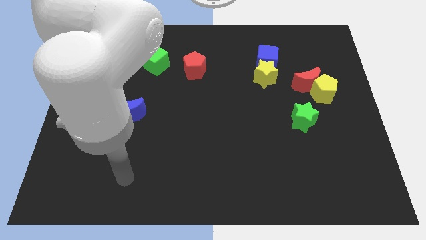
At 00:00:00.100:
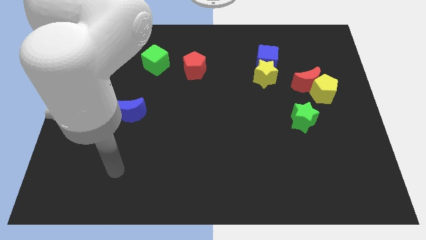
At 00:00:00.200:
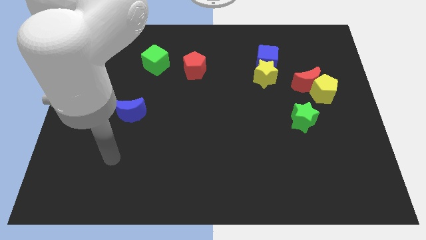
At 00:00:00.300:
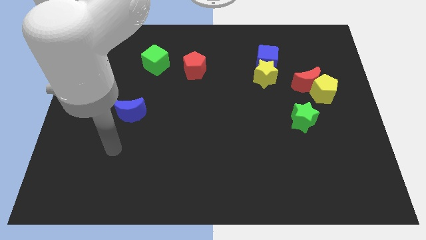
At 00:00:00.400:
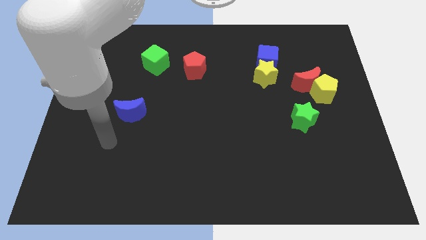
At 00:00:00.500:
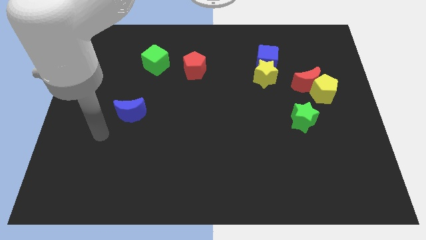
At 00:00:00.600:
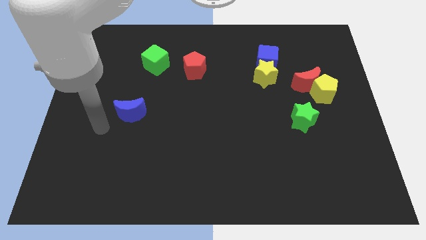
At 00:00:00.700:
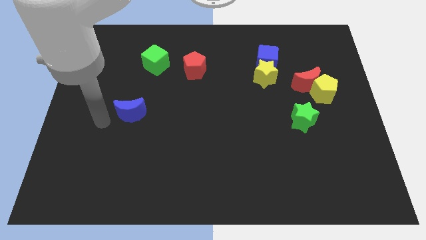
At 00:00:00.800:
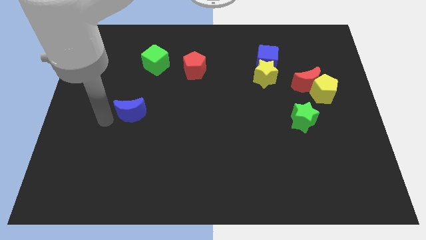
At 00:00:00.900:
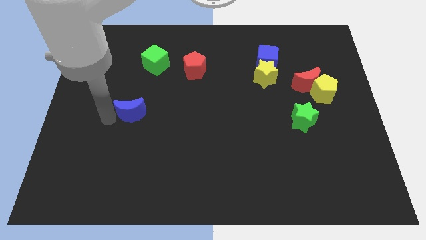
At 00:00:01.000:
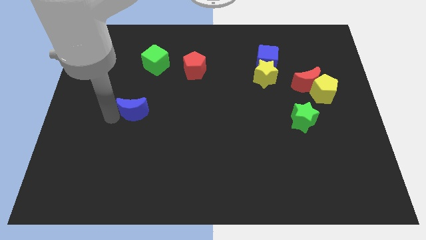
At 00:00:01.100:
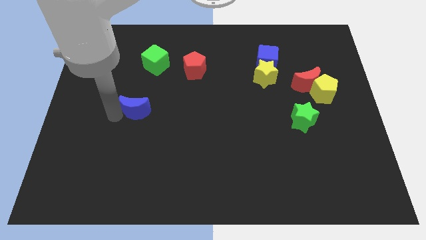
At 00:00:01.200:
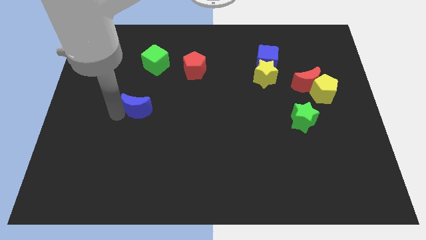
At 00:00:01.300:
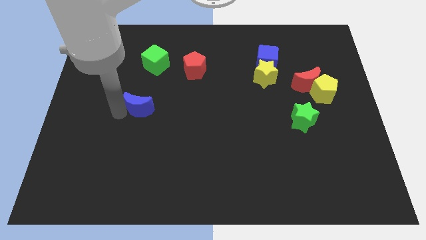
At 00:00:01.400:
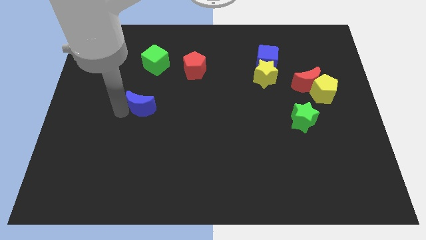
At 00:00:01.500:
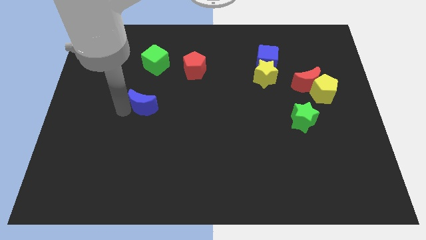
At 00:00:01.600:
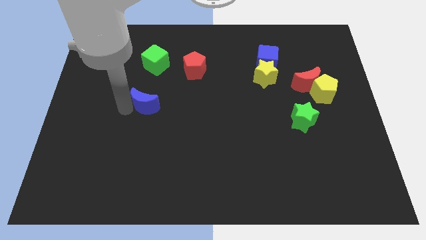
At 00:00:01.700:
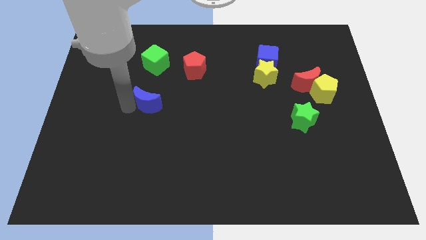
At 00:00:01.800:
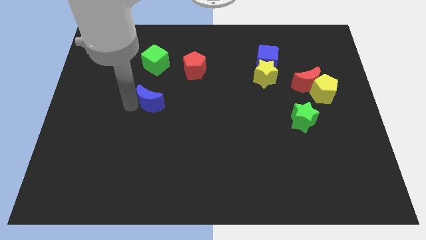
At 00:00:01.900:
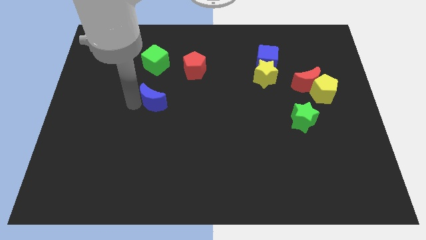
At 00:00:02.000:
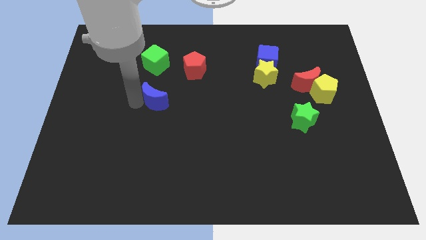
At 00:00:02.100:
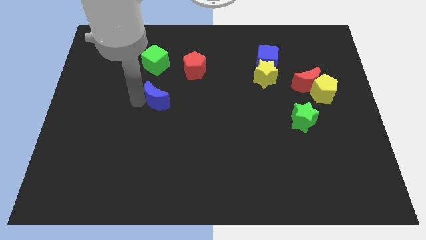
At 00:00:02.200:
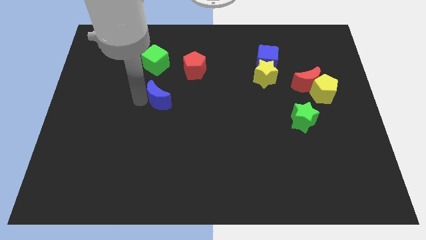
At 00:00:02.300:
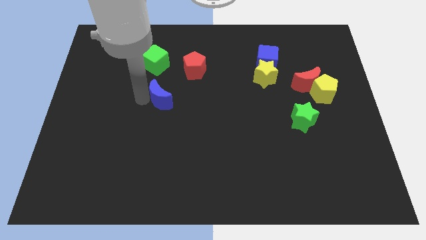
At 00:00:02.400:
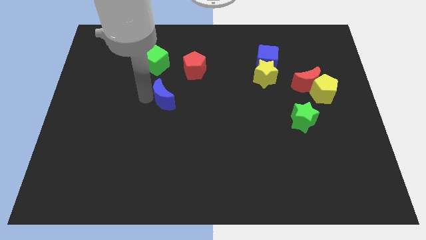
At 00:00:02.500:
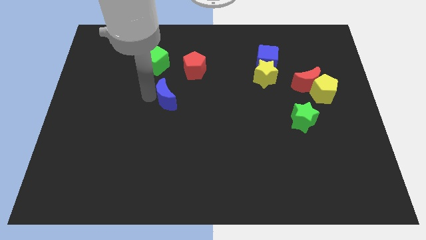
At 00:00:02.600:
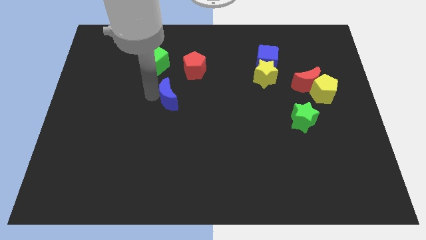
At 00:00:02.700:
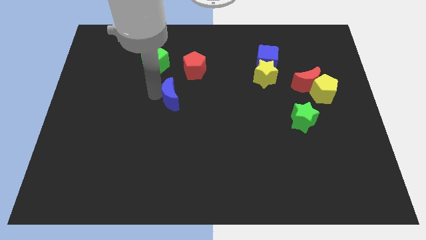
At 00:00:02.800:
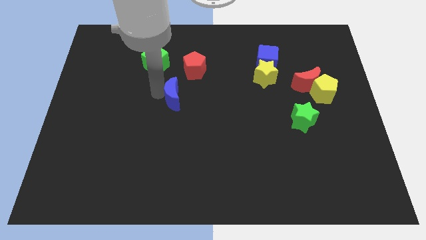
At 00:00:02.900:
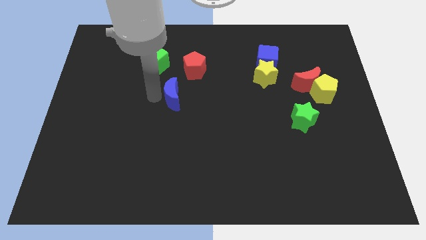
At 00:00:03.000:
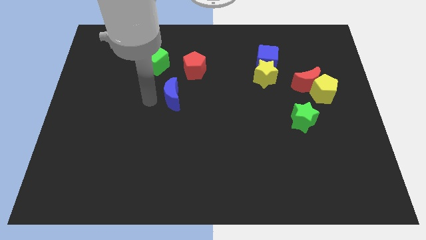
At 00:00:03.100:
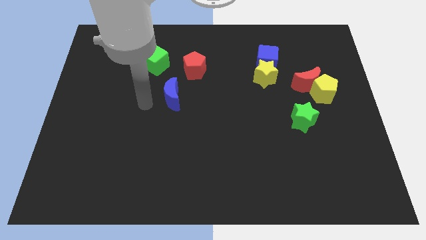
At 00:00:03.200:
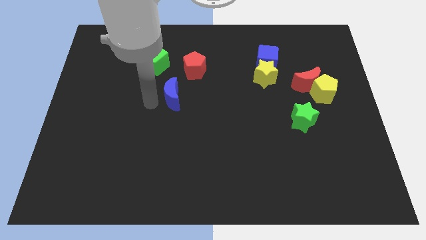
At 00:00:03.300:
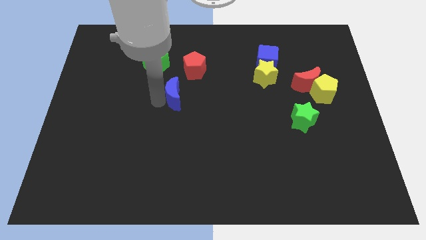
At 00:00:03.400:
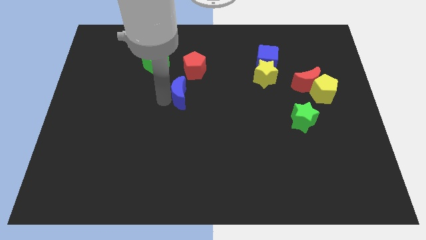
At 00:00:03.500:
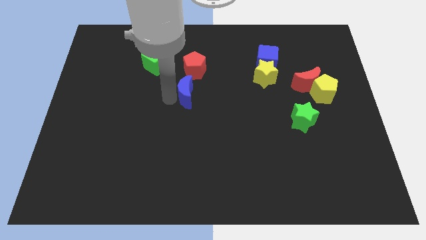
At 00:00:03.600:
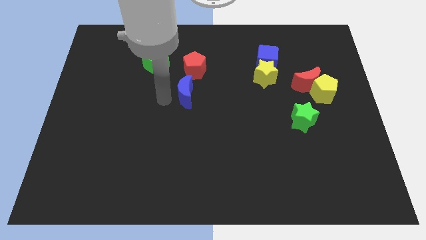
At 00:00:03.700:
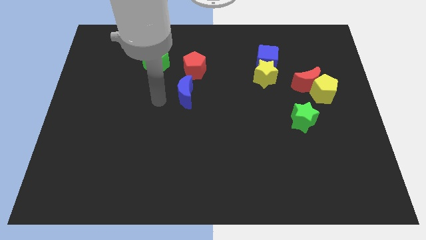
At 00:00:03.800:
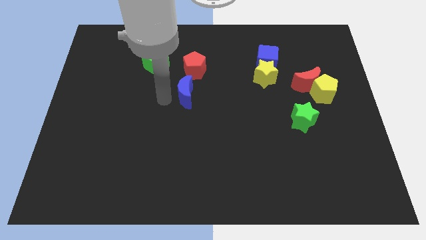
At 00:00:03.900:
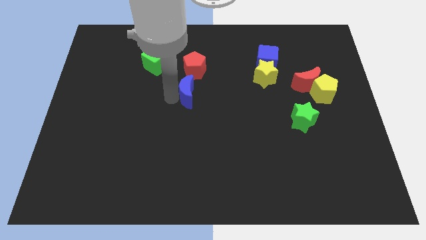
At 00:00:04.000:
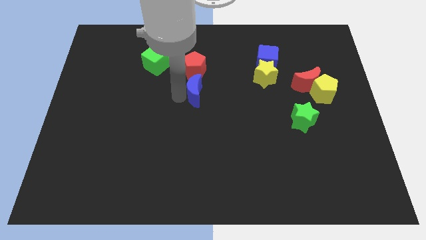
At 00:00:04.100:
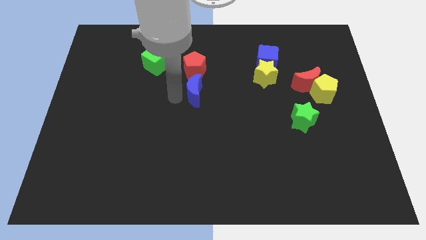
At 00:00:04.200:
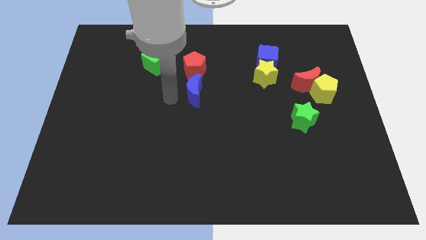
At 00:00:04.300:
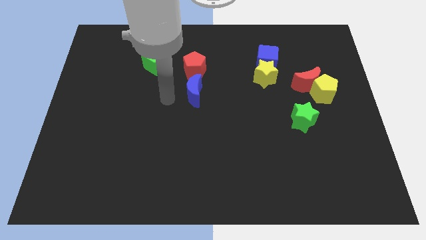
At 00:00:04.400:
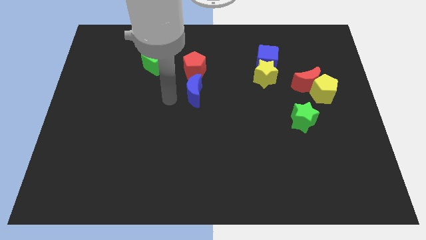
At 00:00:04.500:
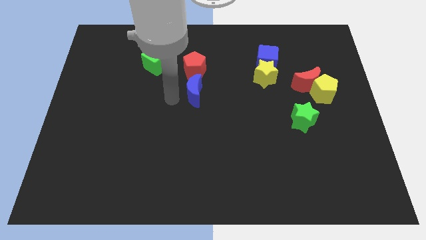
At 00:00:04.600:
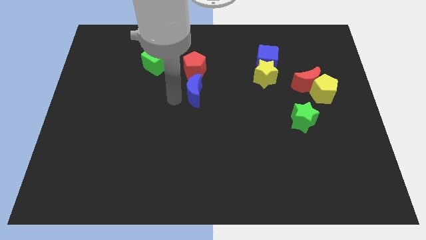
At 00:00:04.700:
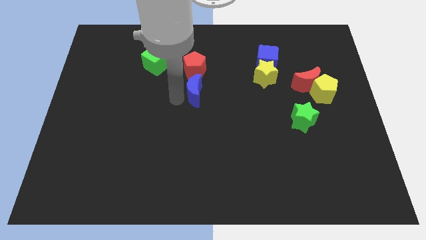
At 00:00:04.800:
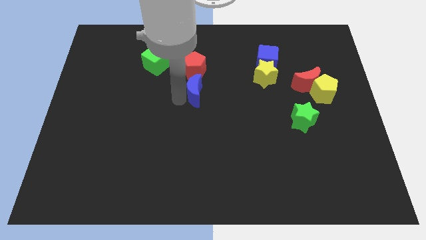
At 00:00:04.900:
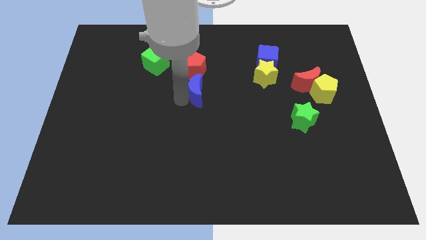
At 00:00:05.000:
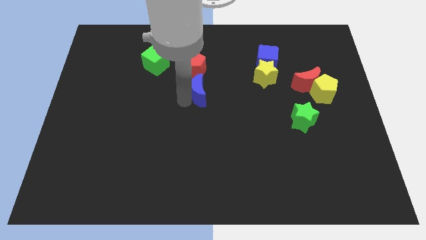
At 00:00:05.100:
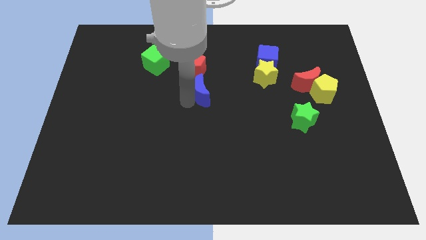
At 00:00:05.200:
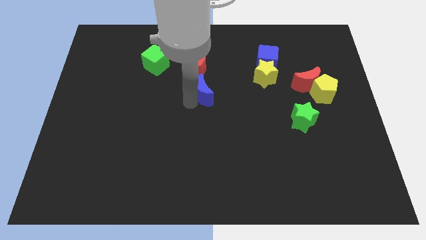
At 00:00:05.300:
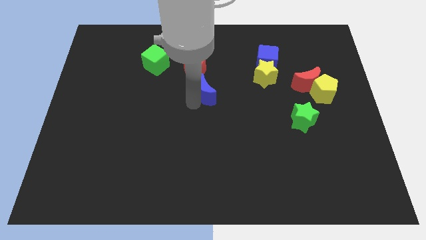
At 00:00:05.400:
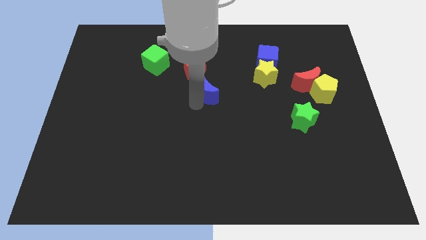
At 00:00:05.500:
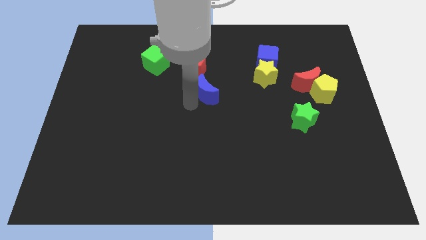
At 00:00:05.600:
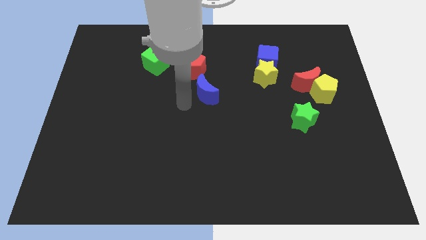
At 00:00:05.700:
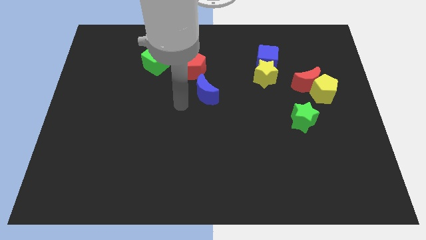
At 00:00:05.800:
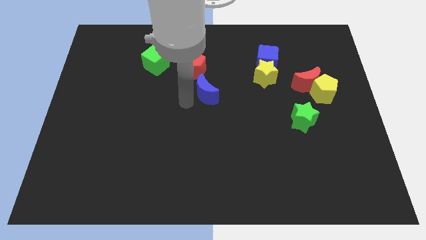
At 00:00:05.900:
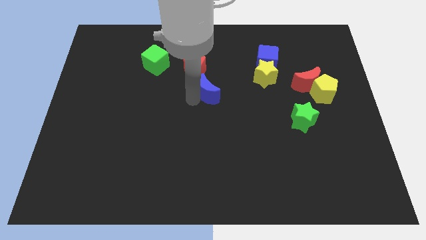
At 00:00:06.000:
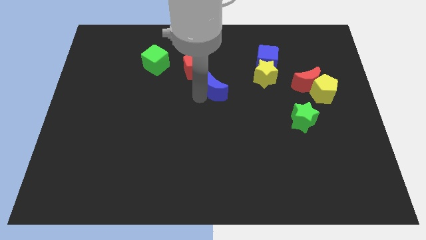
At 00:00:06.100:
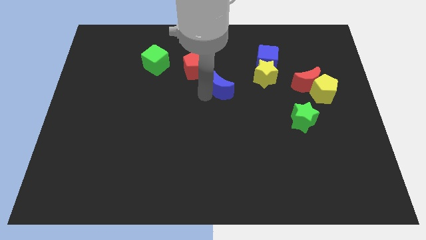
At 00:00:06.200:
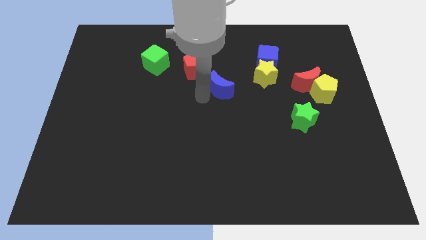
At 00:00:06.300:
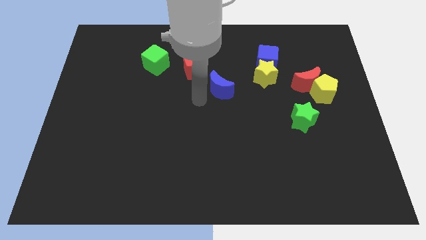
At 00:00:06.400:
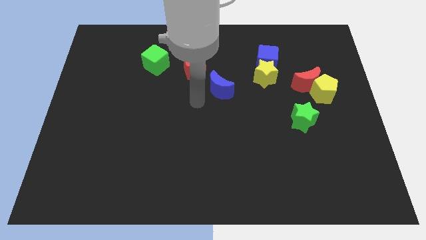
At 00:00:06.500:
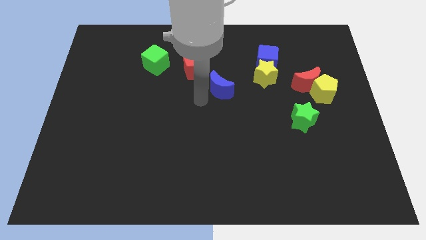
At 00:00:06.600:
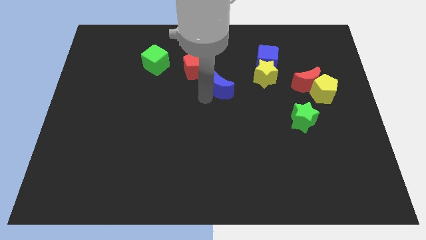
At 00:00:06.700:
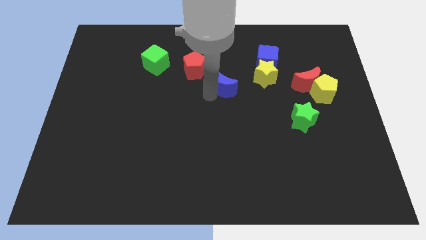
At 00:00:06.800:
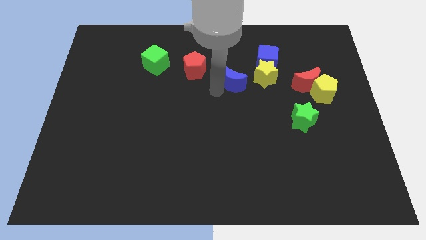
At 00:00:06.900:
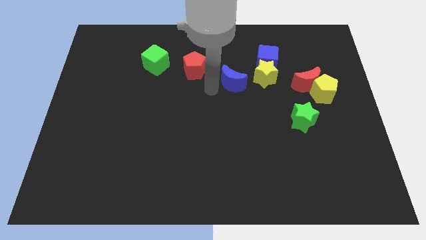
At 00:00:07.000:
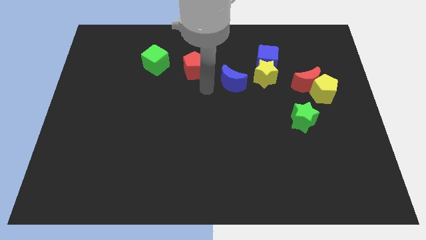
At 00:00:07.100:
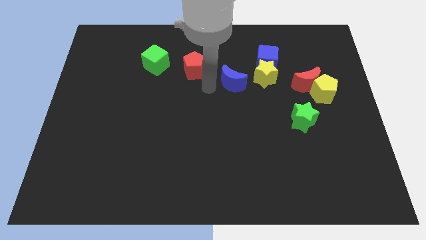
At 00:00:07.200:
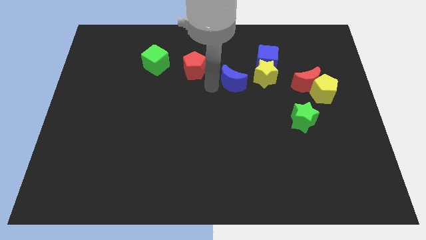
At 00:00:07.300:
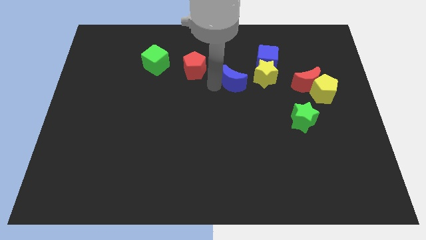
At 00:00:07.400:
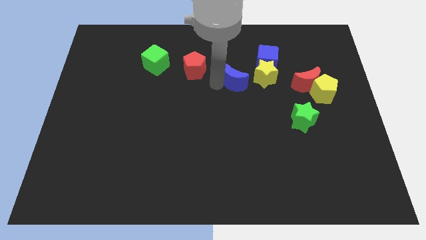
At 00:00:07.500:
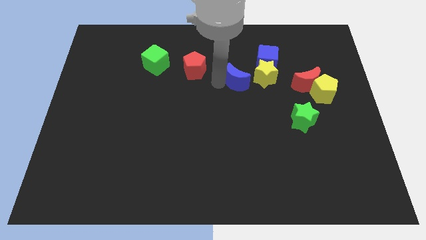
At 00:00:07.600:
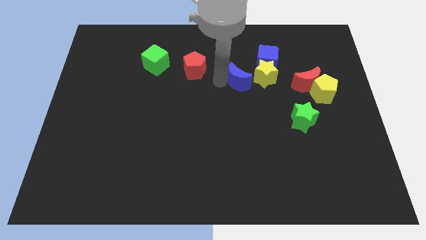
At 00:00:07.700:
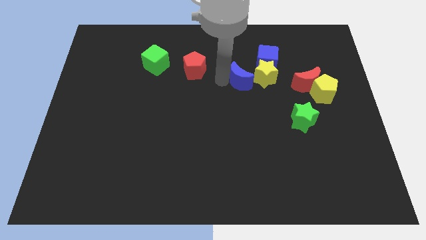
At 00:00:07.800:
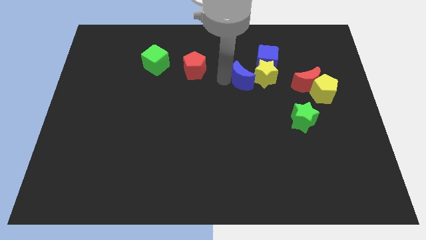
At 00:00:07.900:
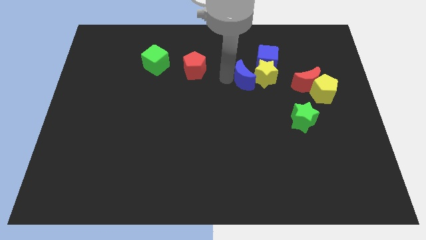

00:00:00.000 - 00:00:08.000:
slide the blue moon close to the yellow star
